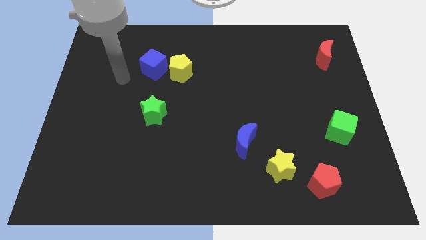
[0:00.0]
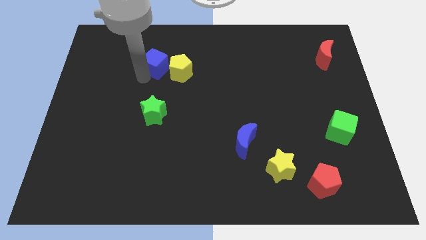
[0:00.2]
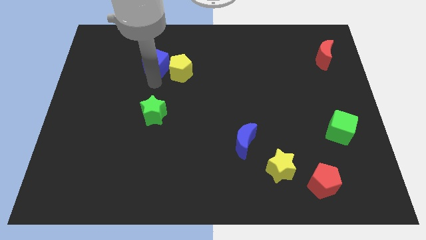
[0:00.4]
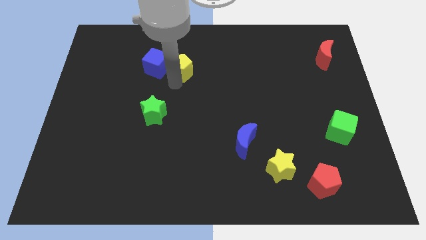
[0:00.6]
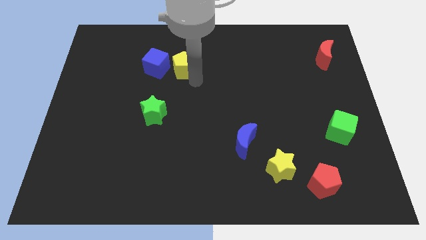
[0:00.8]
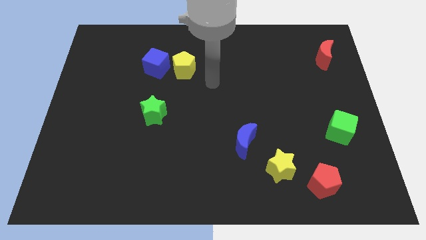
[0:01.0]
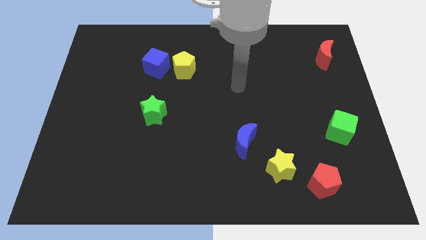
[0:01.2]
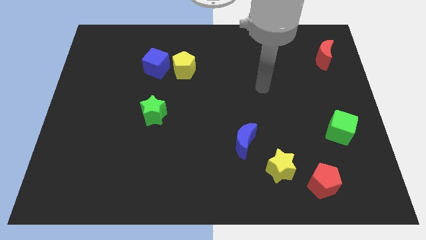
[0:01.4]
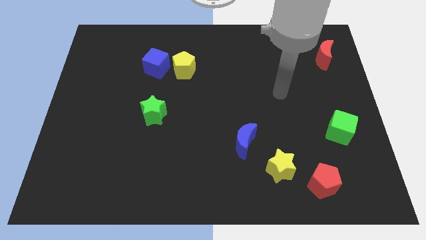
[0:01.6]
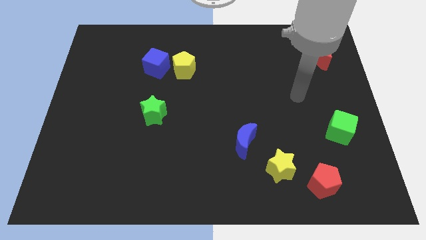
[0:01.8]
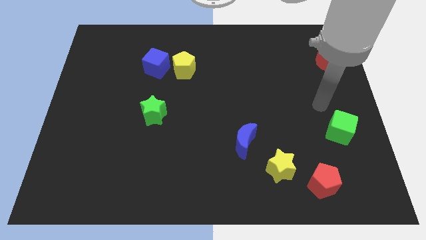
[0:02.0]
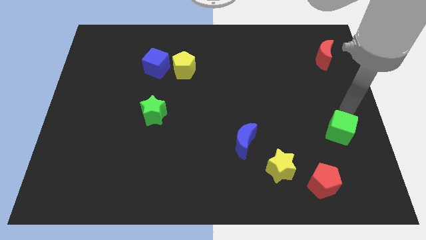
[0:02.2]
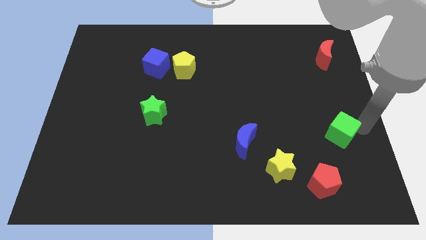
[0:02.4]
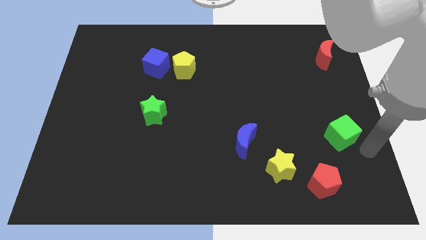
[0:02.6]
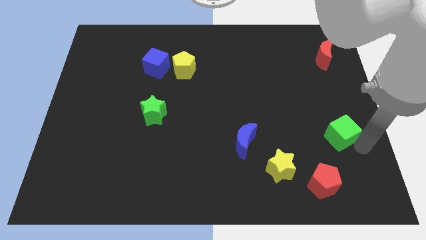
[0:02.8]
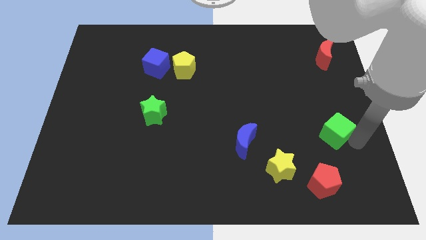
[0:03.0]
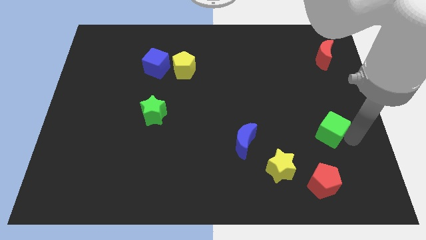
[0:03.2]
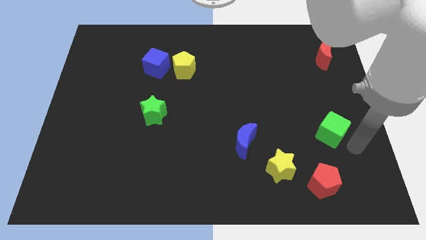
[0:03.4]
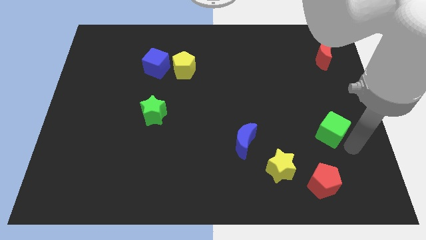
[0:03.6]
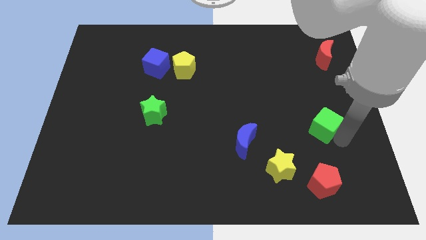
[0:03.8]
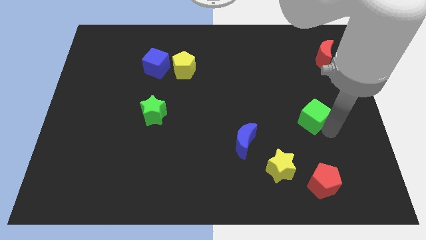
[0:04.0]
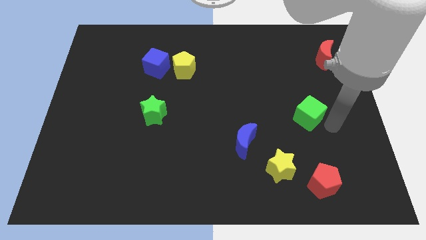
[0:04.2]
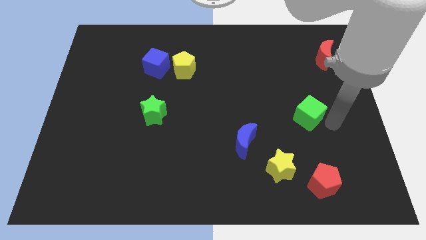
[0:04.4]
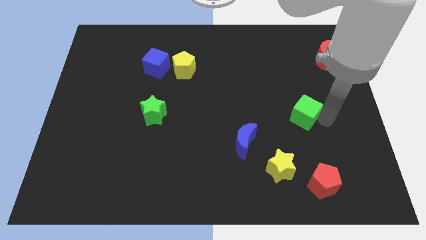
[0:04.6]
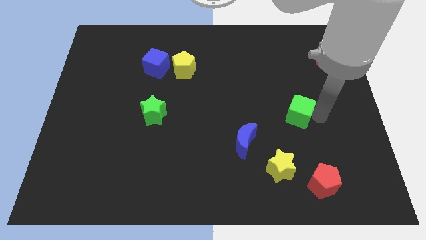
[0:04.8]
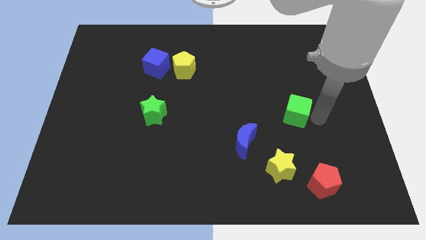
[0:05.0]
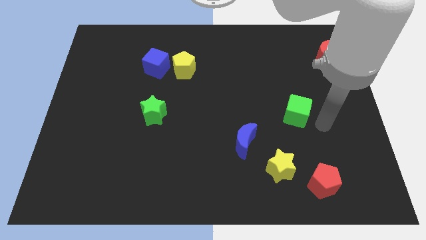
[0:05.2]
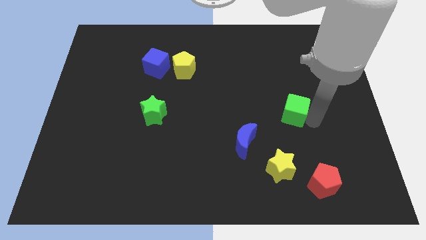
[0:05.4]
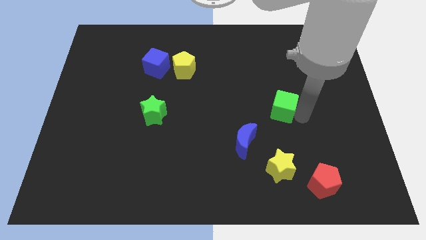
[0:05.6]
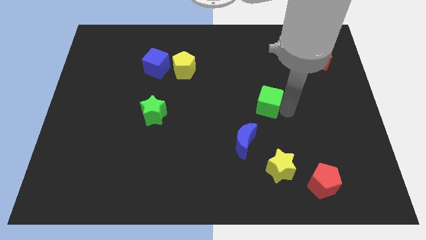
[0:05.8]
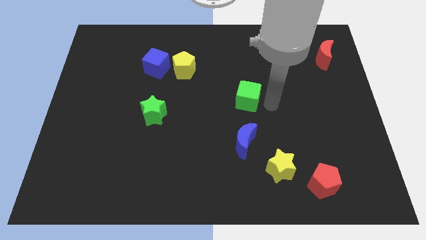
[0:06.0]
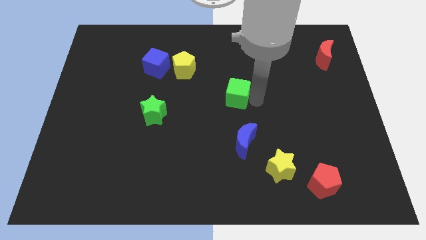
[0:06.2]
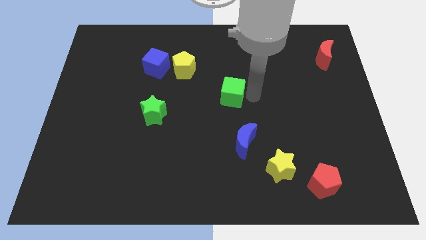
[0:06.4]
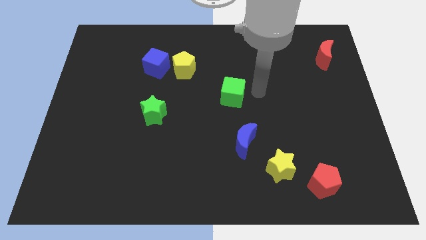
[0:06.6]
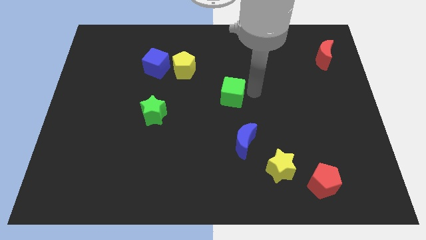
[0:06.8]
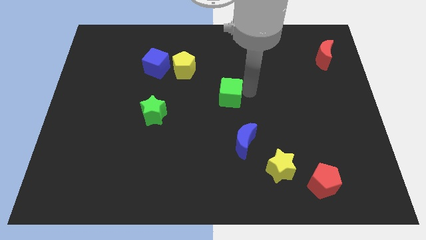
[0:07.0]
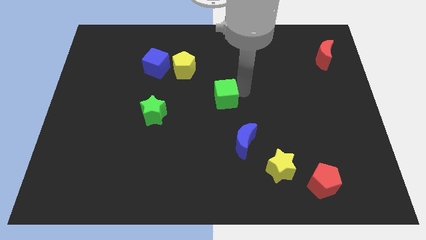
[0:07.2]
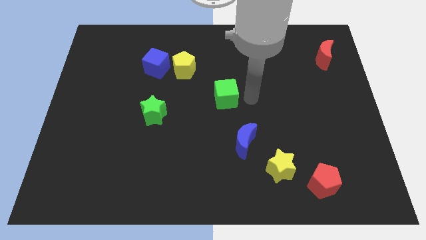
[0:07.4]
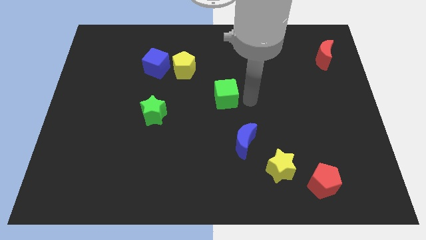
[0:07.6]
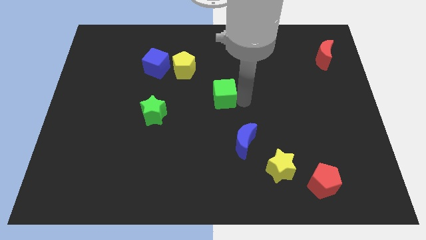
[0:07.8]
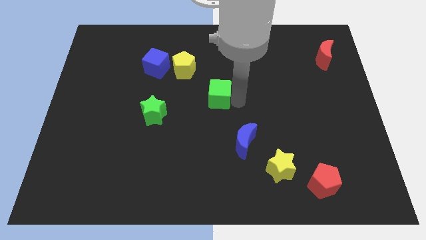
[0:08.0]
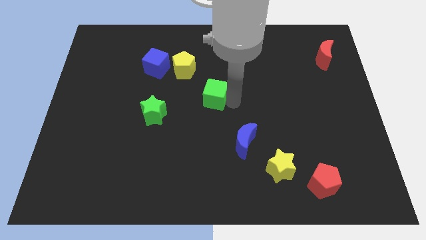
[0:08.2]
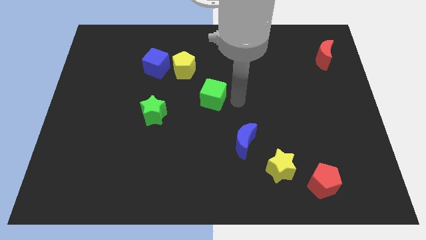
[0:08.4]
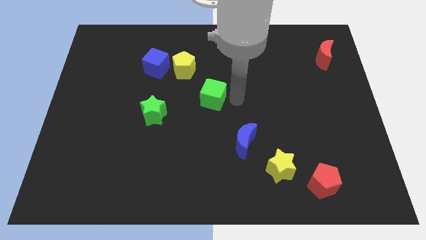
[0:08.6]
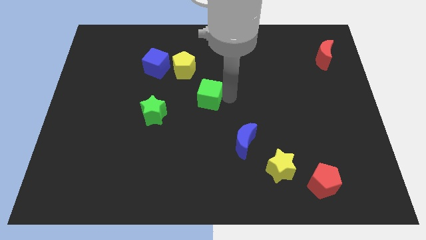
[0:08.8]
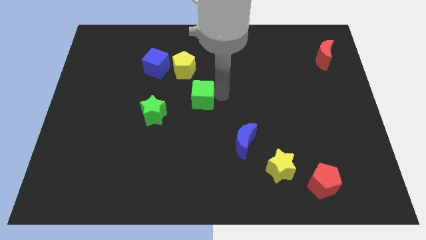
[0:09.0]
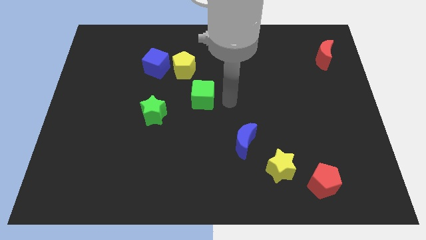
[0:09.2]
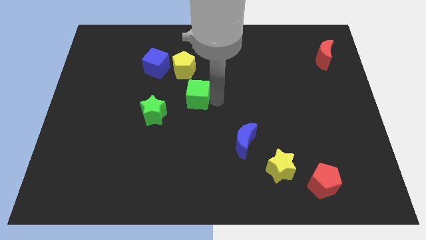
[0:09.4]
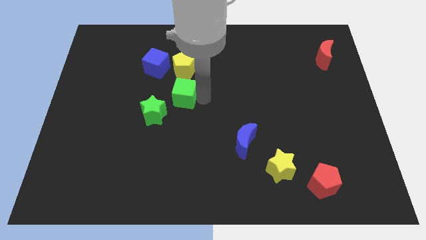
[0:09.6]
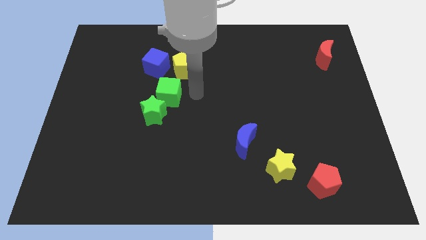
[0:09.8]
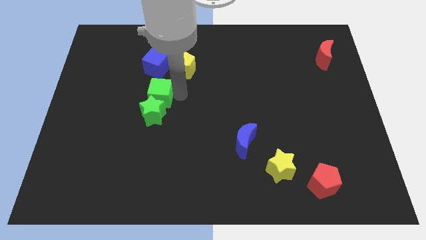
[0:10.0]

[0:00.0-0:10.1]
slide the green cube diagonally up and to the left of the green star

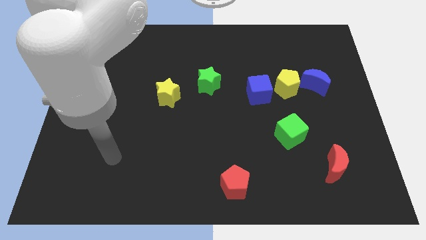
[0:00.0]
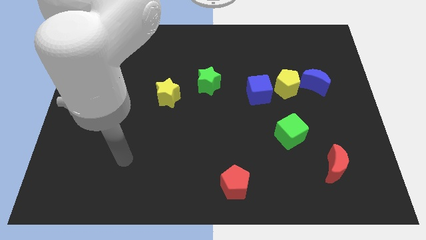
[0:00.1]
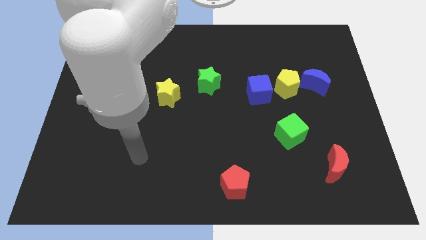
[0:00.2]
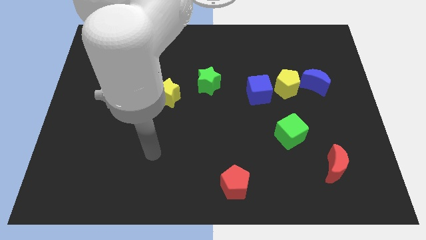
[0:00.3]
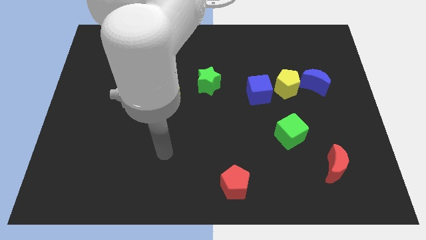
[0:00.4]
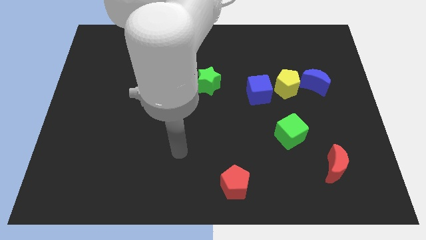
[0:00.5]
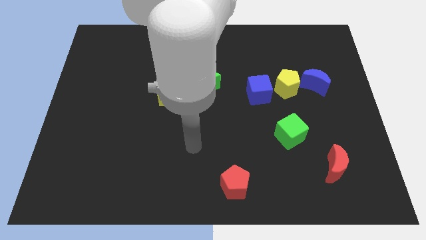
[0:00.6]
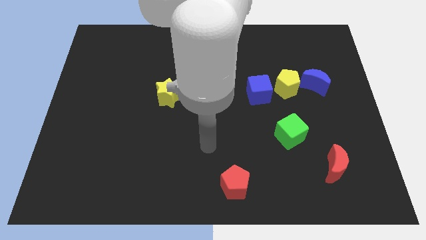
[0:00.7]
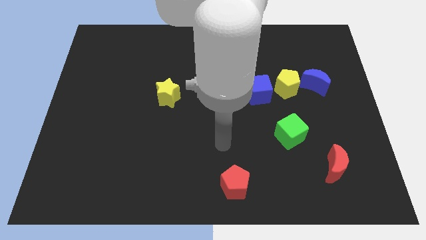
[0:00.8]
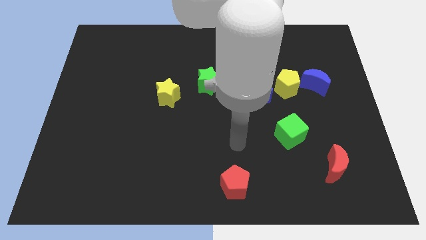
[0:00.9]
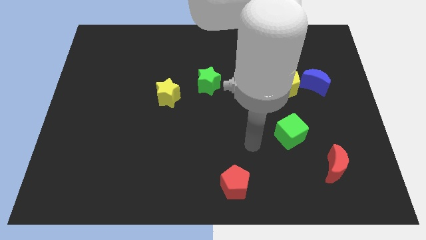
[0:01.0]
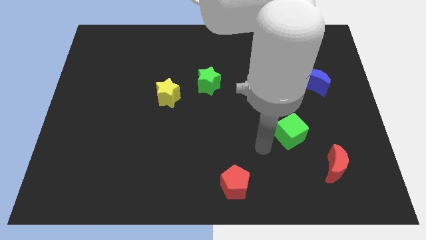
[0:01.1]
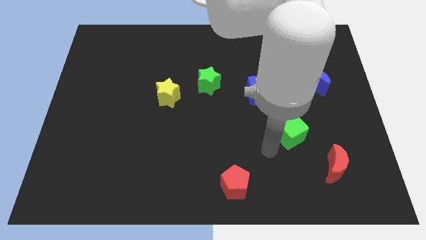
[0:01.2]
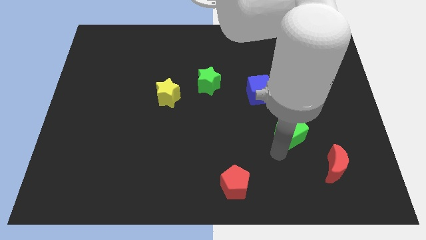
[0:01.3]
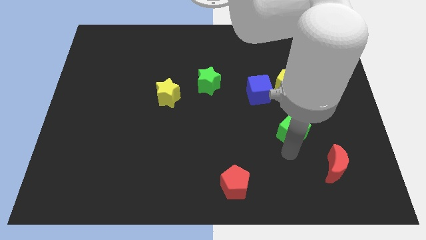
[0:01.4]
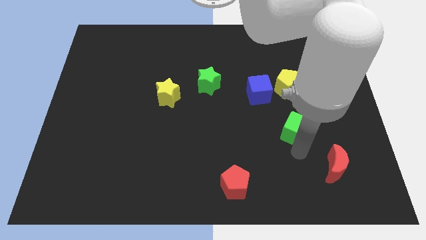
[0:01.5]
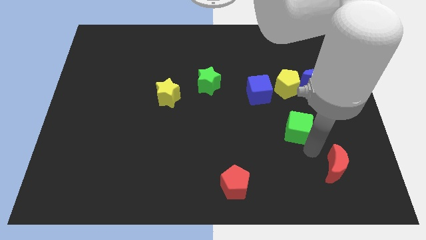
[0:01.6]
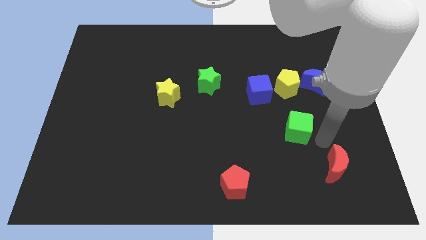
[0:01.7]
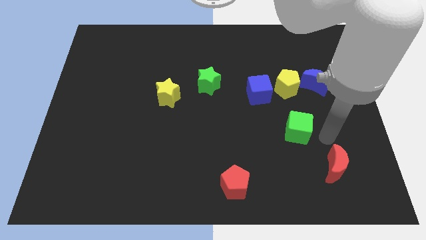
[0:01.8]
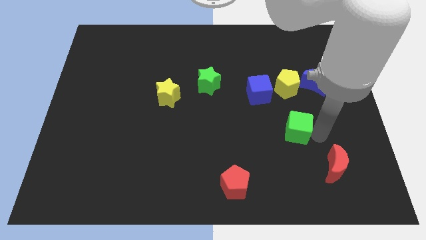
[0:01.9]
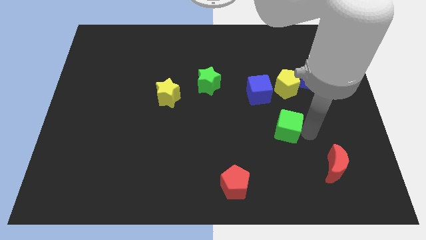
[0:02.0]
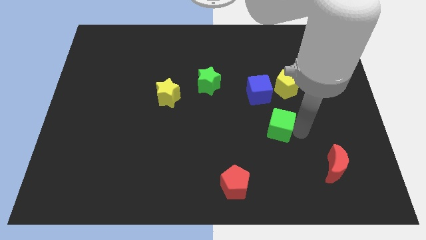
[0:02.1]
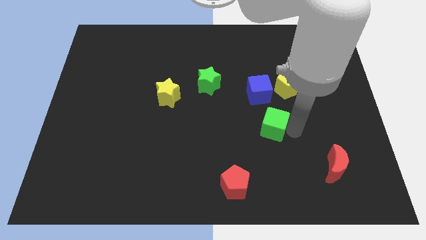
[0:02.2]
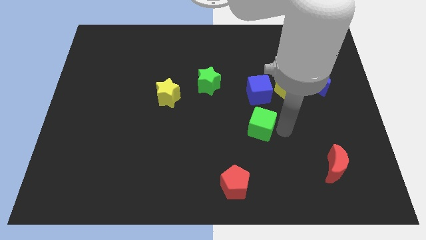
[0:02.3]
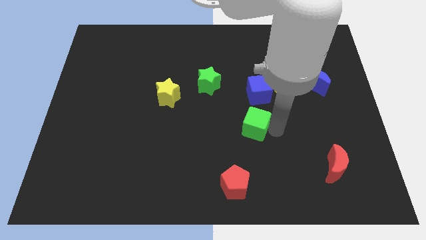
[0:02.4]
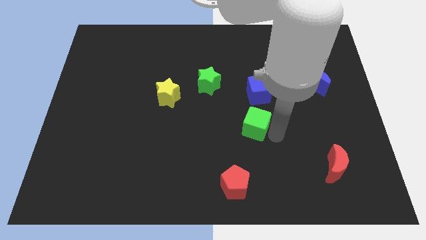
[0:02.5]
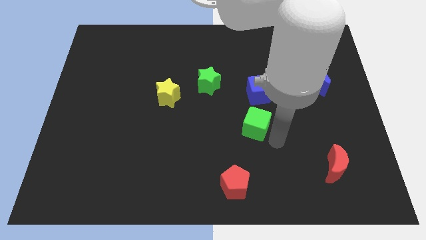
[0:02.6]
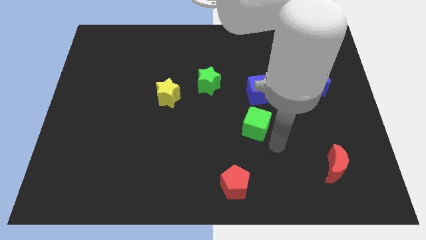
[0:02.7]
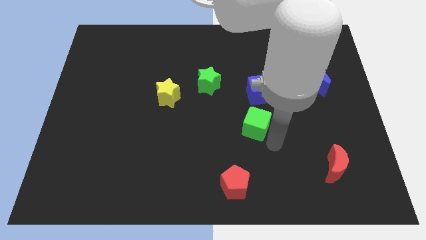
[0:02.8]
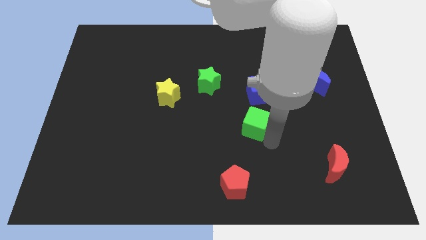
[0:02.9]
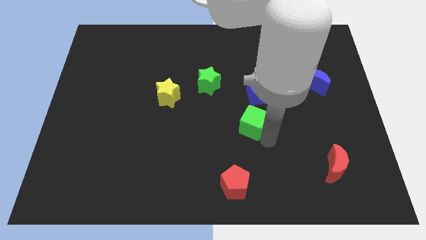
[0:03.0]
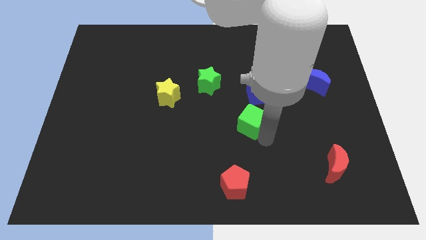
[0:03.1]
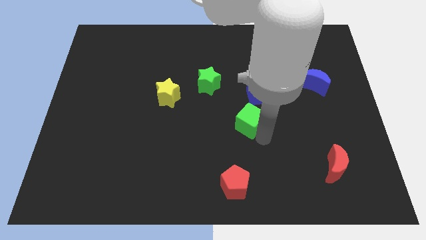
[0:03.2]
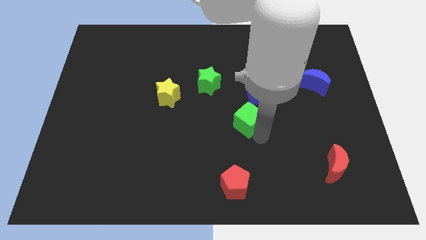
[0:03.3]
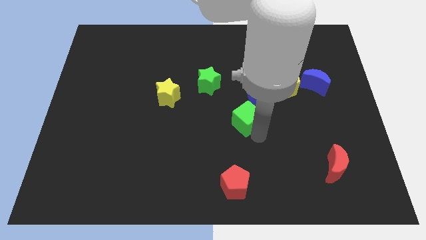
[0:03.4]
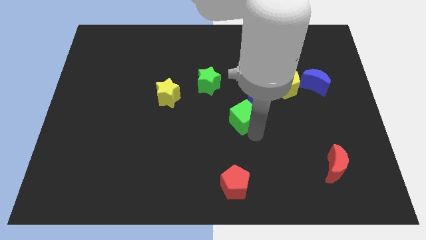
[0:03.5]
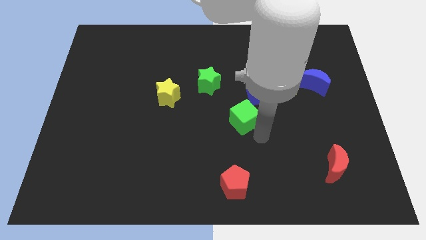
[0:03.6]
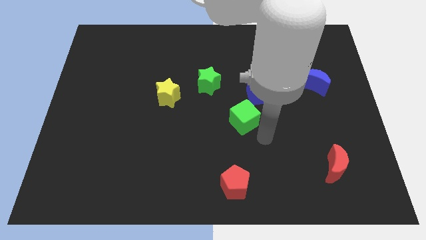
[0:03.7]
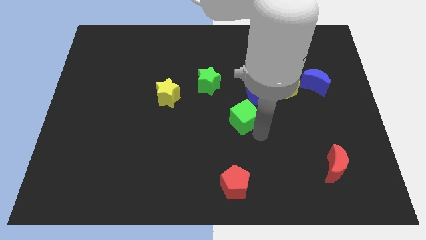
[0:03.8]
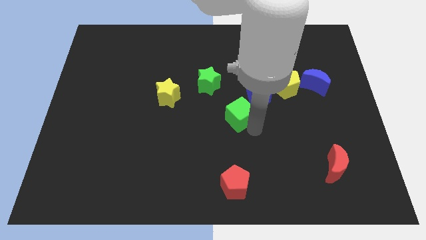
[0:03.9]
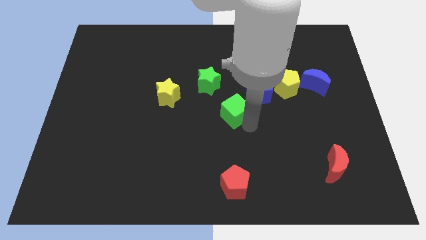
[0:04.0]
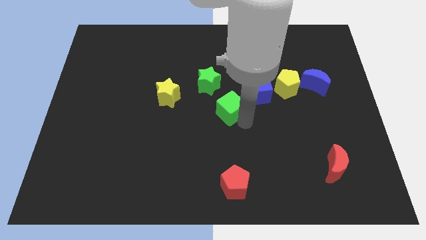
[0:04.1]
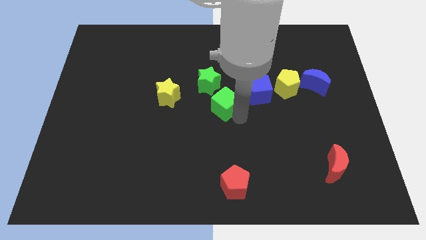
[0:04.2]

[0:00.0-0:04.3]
put the green cube left of the blue cube
